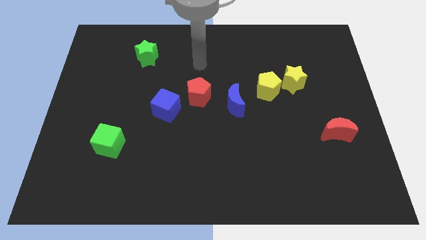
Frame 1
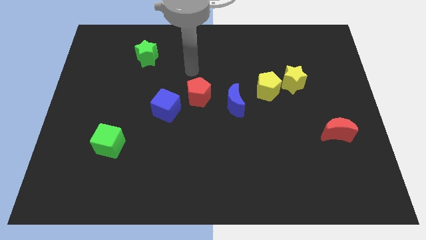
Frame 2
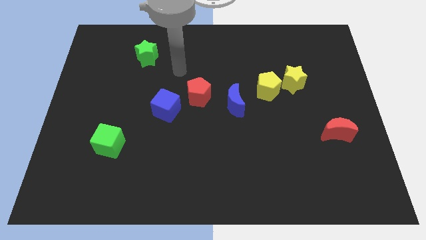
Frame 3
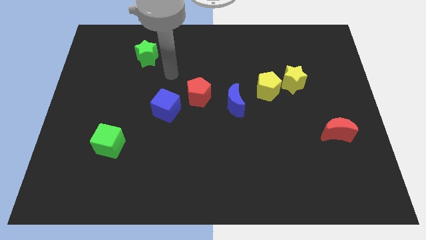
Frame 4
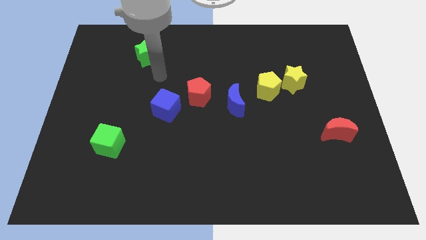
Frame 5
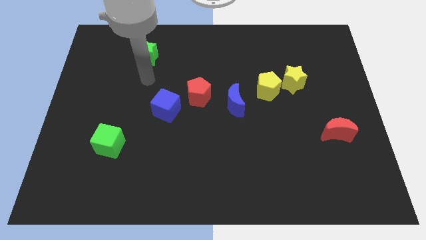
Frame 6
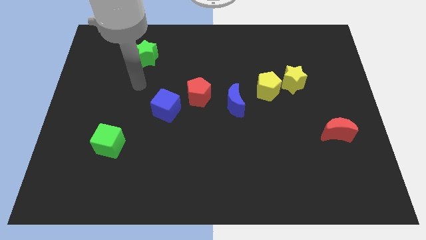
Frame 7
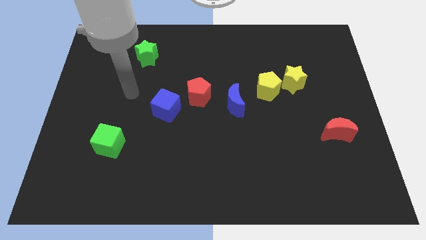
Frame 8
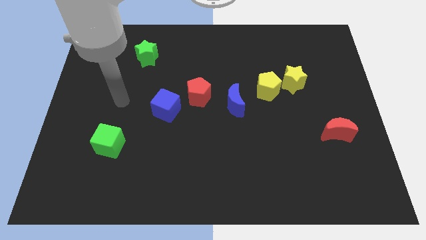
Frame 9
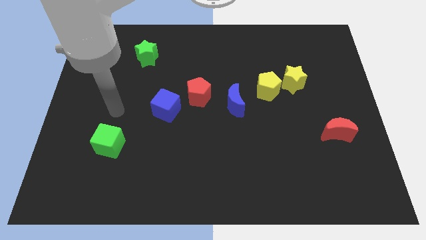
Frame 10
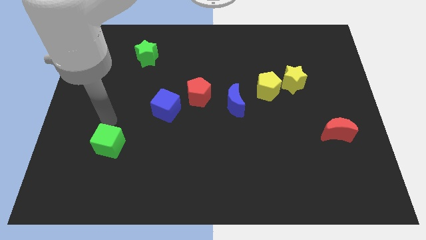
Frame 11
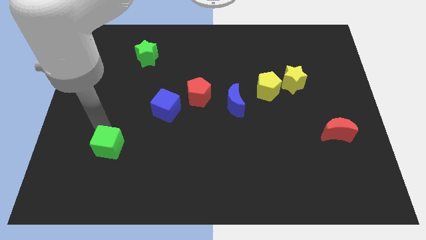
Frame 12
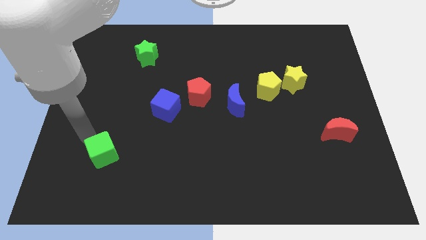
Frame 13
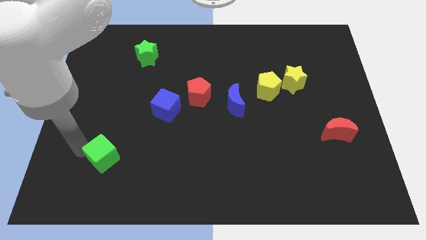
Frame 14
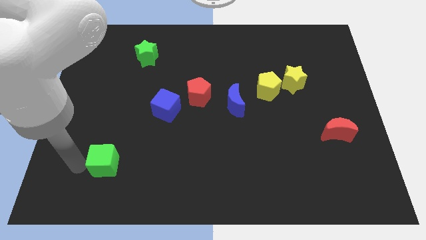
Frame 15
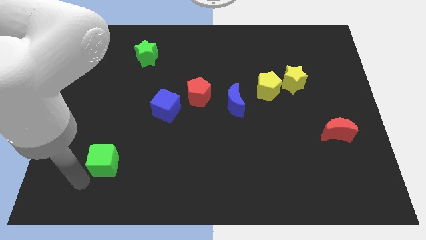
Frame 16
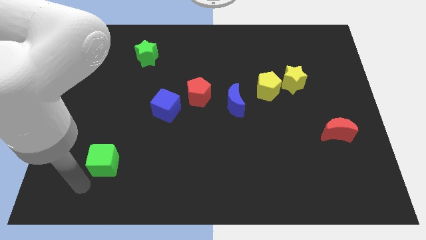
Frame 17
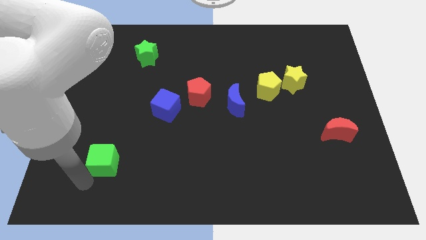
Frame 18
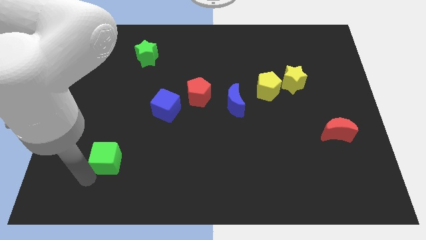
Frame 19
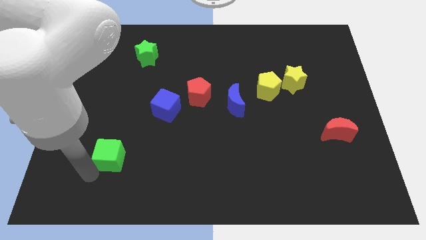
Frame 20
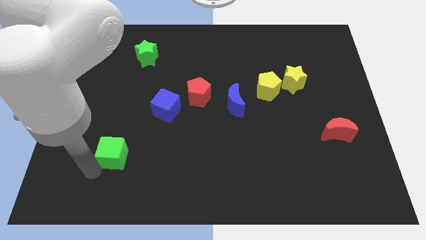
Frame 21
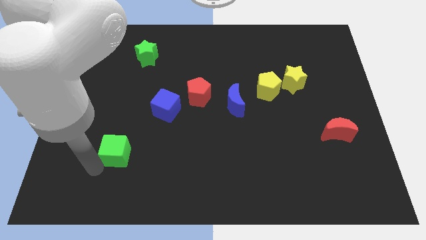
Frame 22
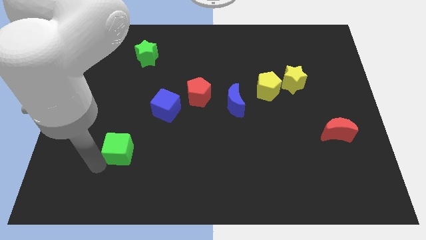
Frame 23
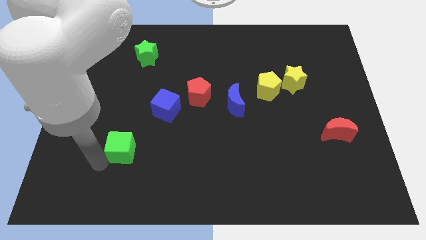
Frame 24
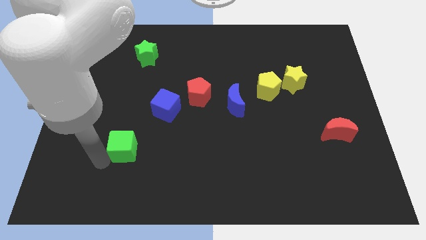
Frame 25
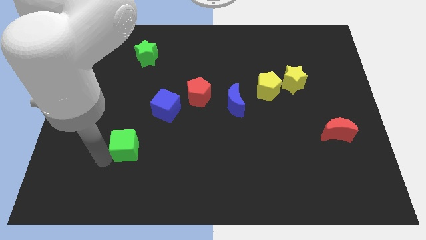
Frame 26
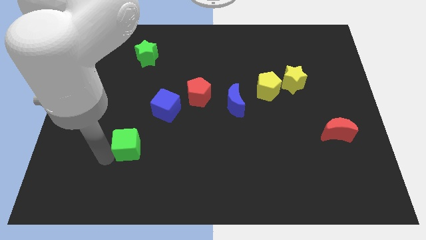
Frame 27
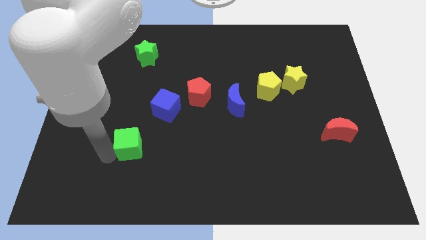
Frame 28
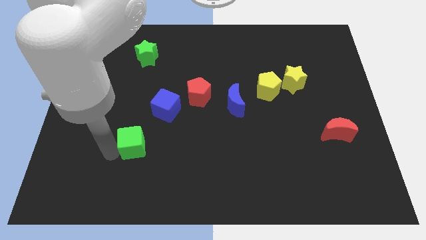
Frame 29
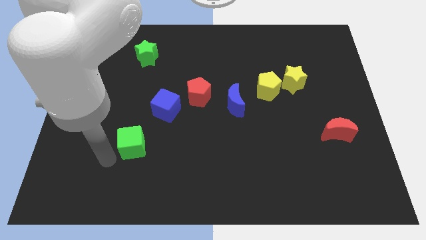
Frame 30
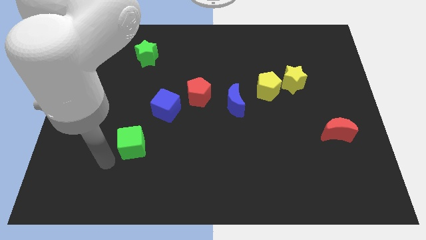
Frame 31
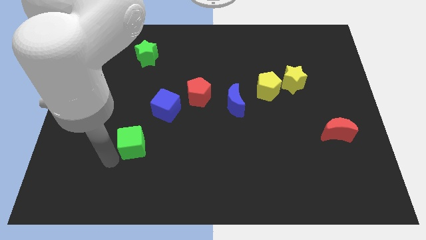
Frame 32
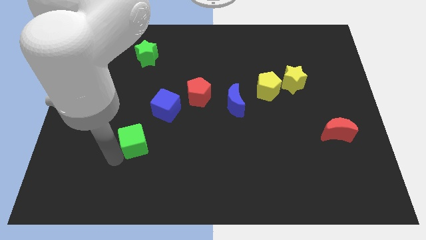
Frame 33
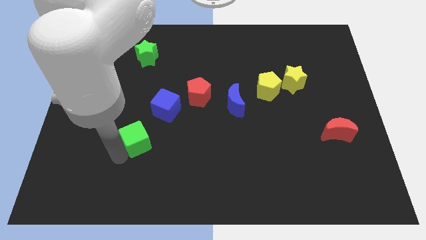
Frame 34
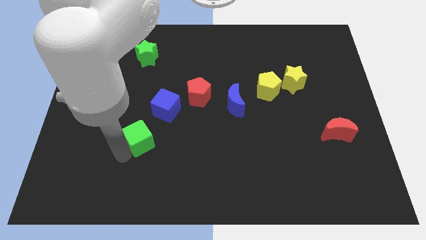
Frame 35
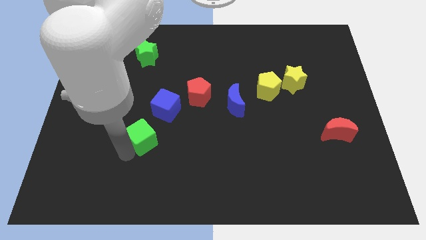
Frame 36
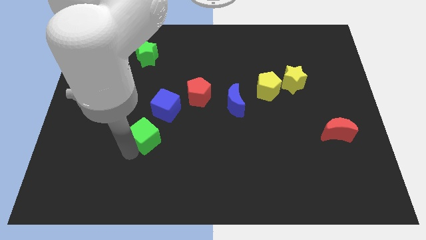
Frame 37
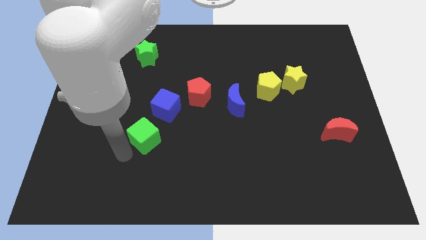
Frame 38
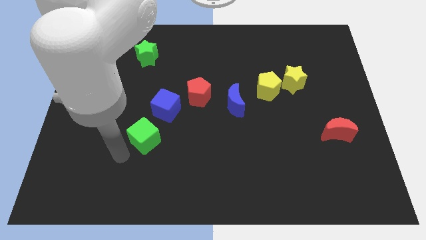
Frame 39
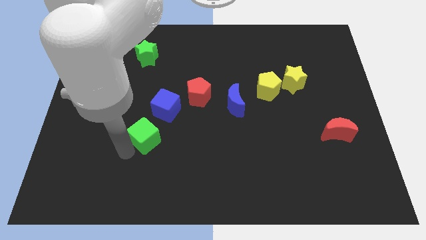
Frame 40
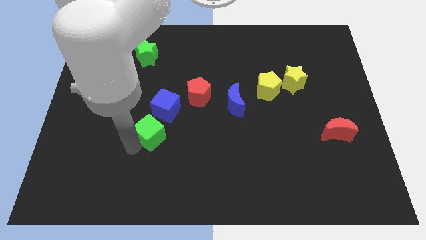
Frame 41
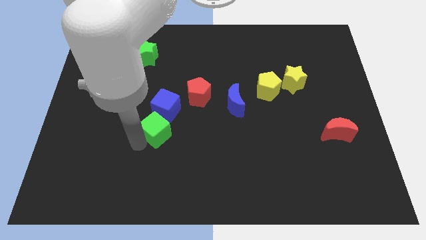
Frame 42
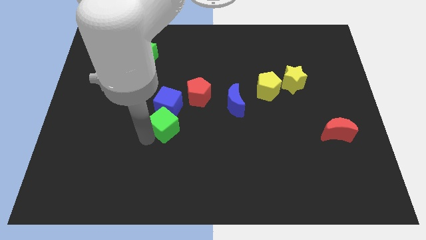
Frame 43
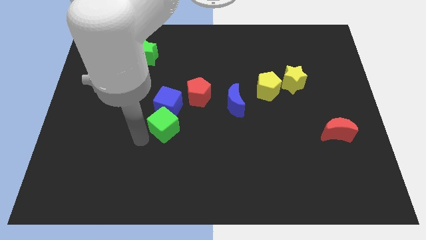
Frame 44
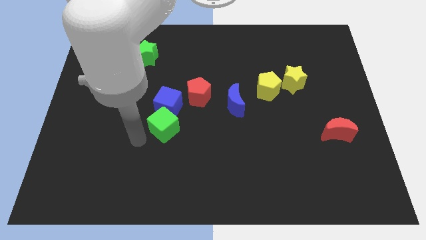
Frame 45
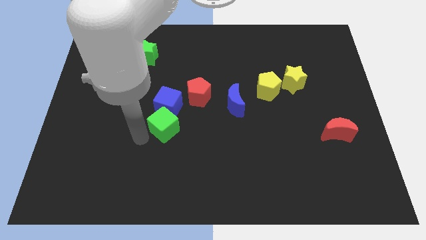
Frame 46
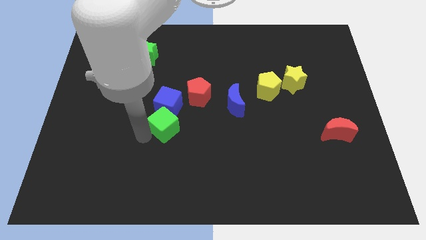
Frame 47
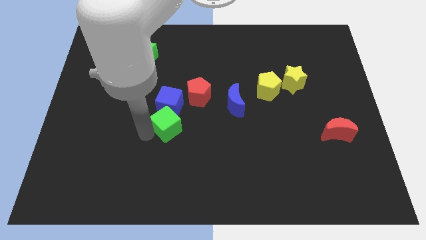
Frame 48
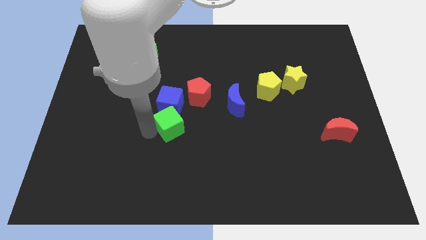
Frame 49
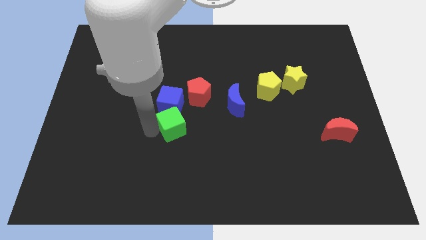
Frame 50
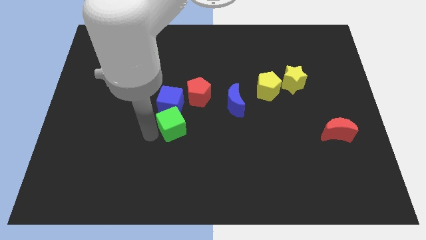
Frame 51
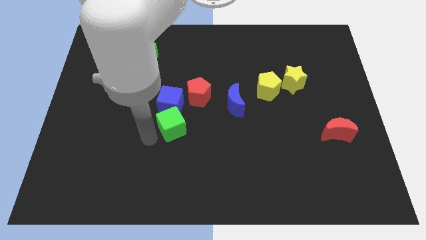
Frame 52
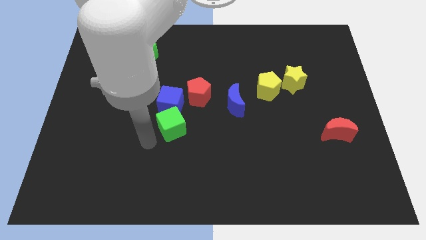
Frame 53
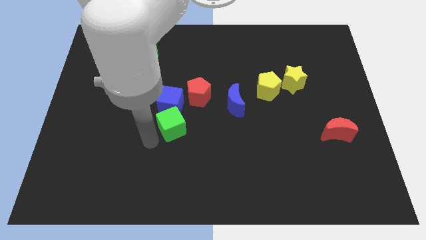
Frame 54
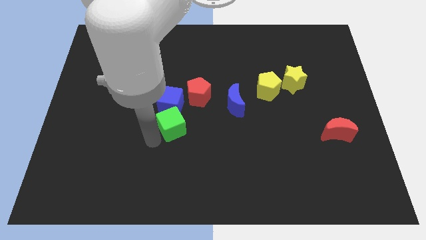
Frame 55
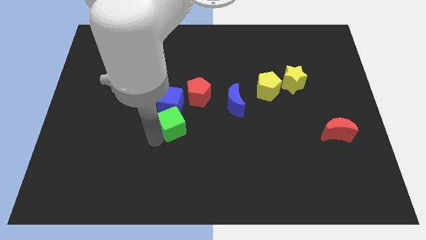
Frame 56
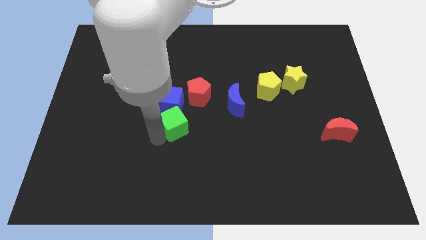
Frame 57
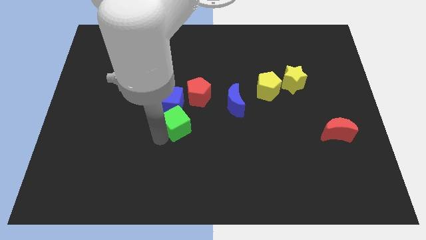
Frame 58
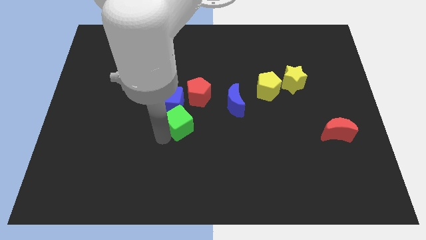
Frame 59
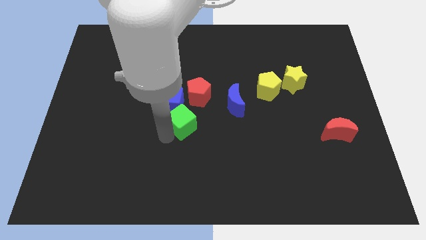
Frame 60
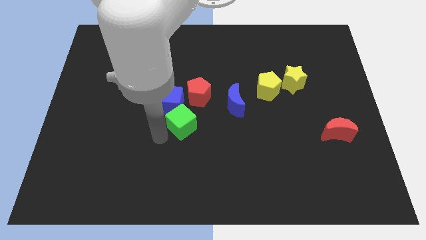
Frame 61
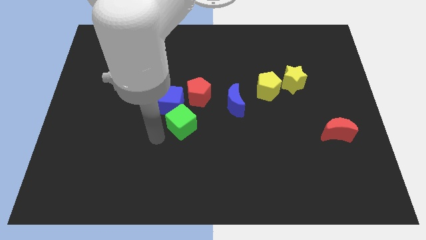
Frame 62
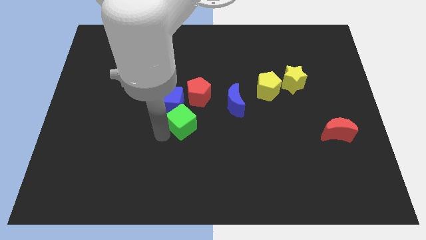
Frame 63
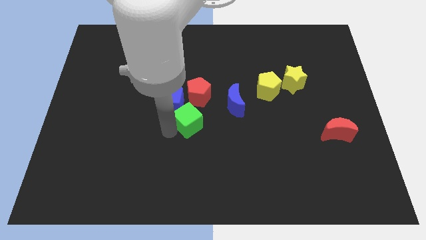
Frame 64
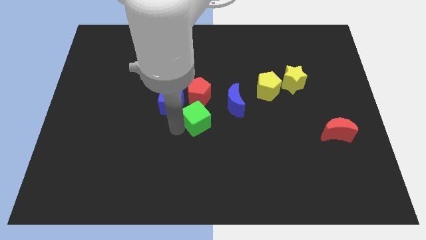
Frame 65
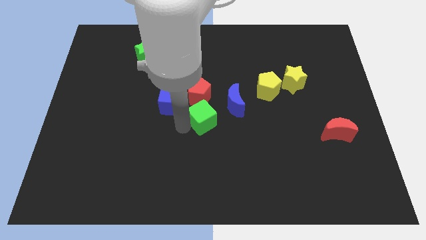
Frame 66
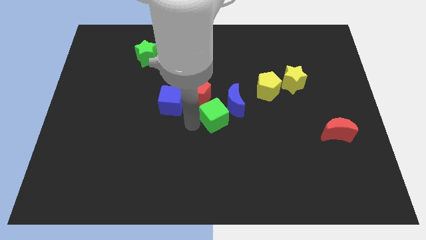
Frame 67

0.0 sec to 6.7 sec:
push the green cube to the blue moon

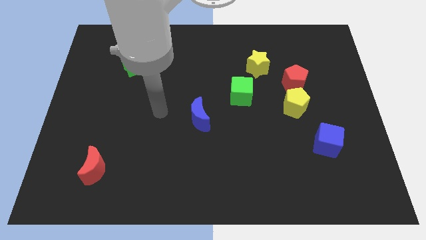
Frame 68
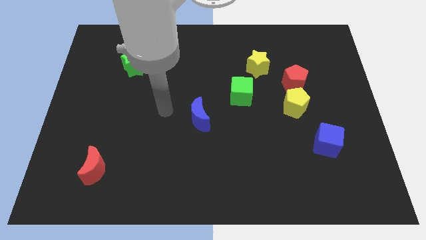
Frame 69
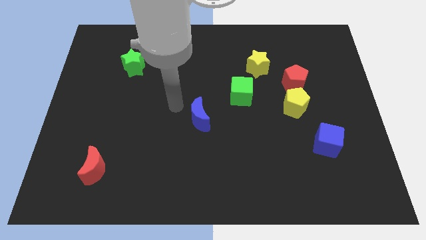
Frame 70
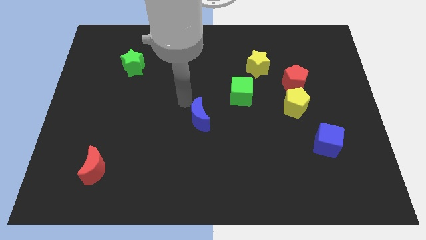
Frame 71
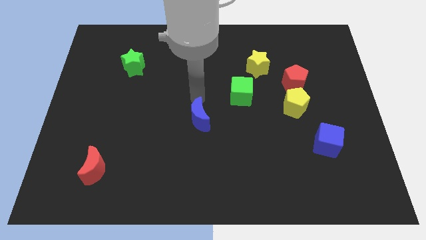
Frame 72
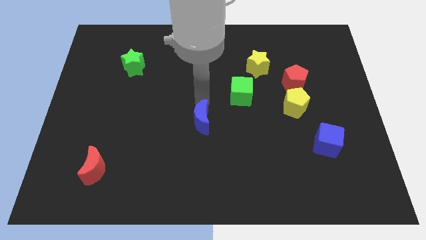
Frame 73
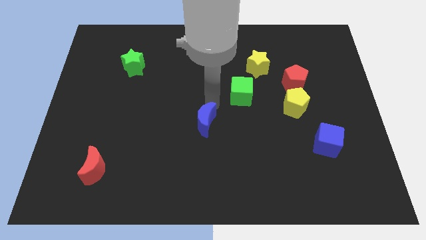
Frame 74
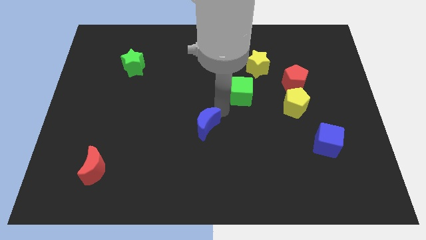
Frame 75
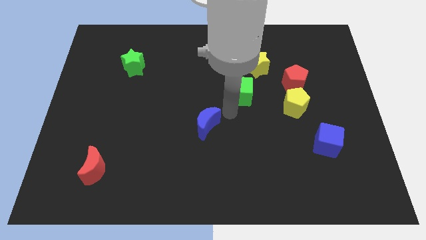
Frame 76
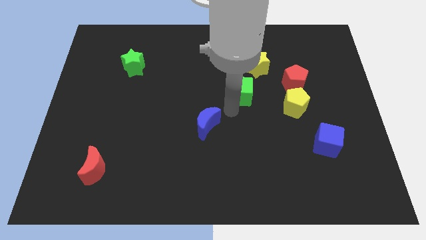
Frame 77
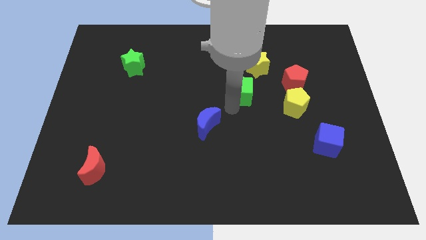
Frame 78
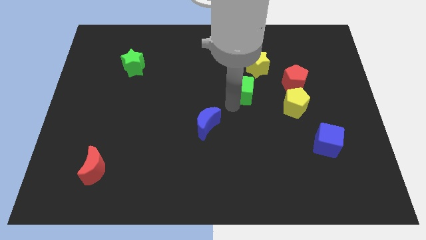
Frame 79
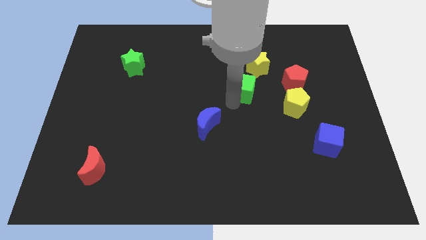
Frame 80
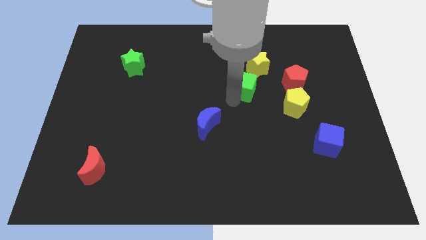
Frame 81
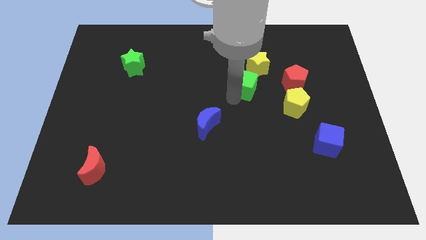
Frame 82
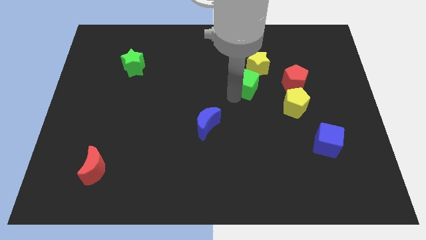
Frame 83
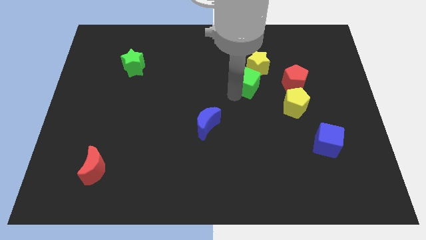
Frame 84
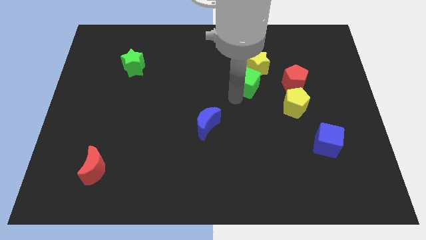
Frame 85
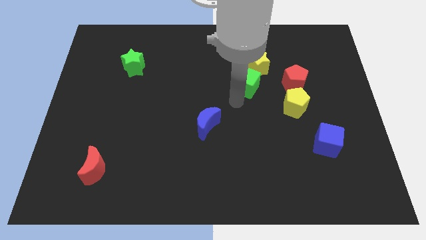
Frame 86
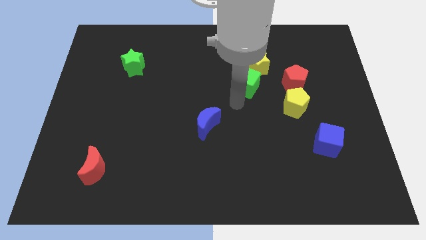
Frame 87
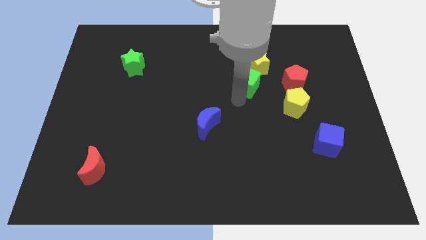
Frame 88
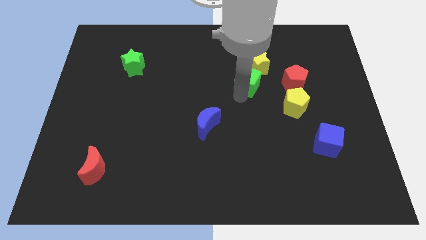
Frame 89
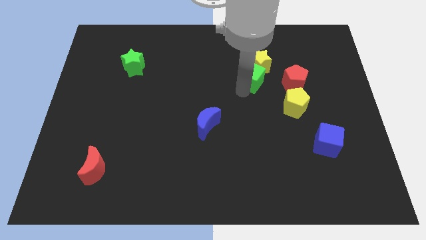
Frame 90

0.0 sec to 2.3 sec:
push the green cube to the yellow star
